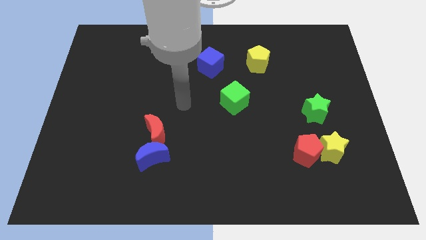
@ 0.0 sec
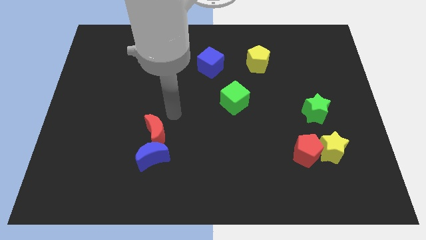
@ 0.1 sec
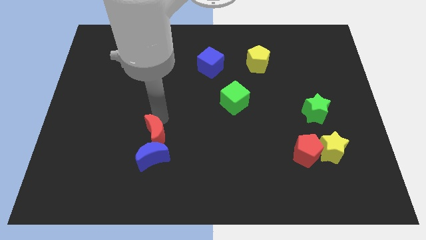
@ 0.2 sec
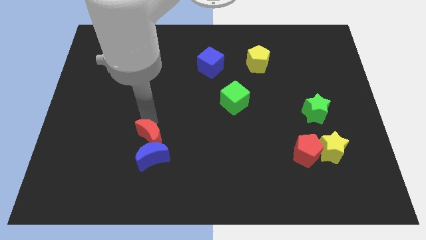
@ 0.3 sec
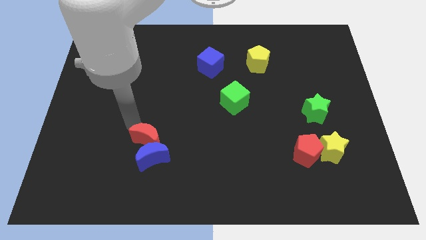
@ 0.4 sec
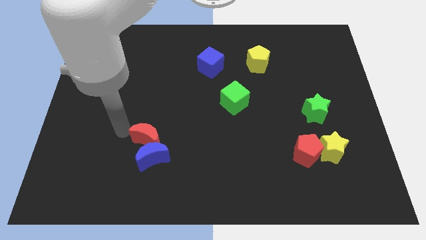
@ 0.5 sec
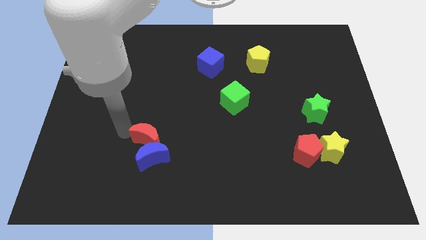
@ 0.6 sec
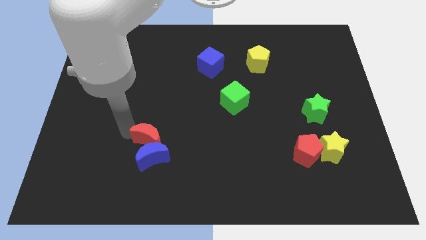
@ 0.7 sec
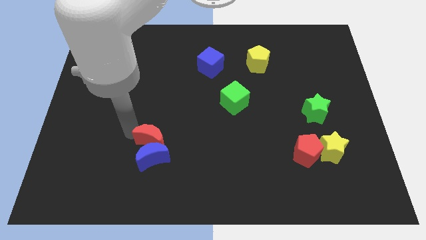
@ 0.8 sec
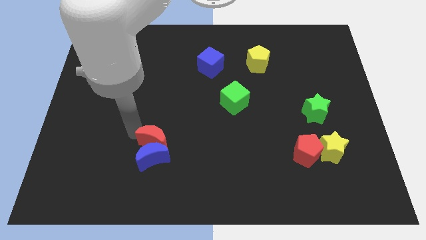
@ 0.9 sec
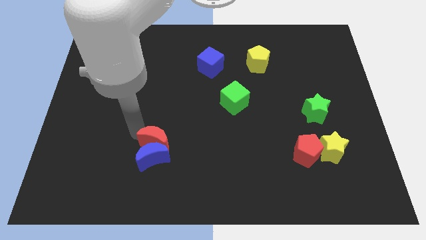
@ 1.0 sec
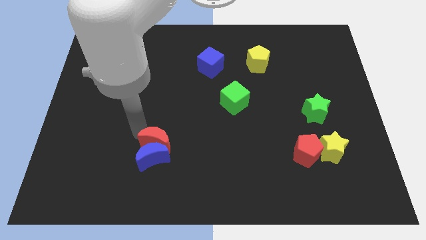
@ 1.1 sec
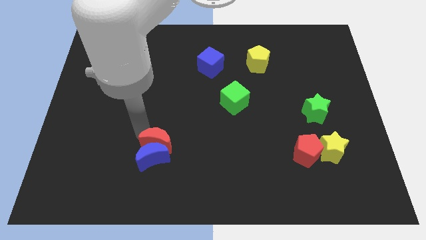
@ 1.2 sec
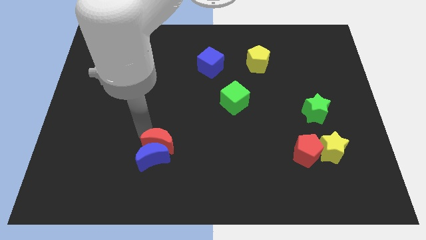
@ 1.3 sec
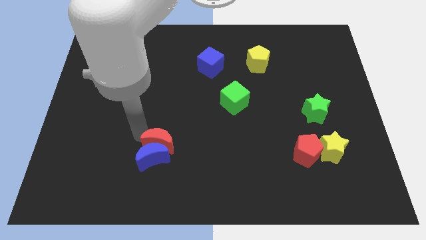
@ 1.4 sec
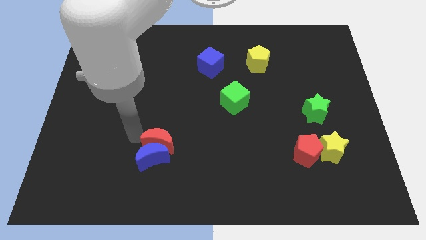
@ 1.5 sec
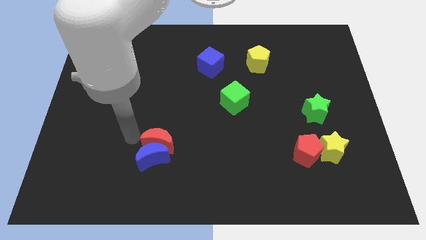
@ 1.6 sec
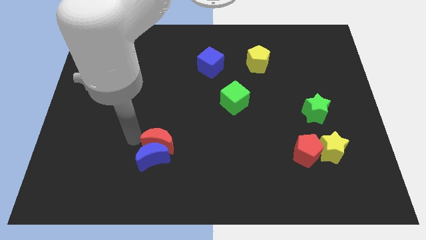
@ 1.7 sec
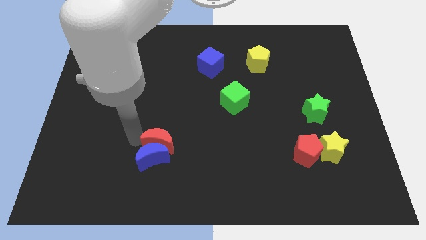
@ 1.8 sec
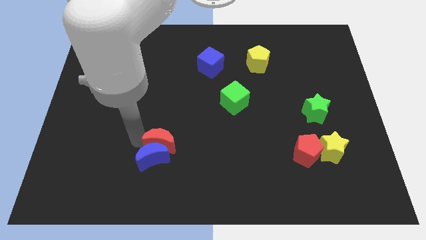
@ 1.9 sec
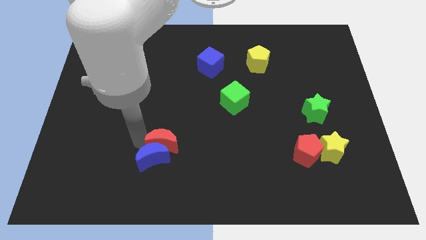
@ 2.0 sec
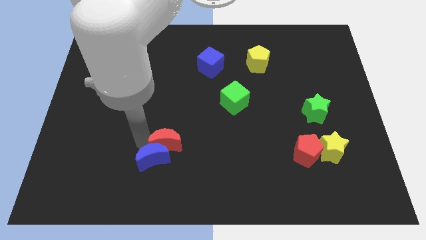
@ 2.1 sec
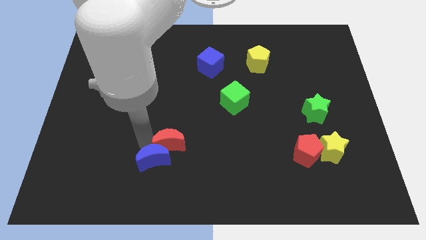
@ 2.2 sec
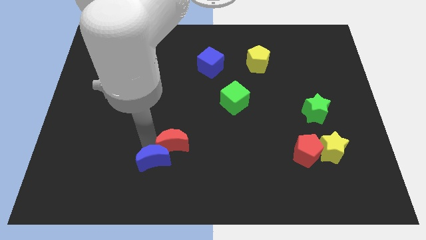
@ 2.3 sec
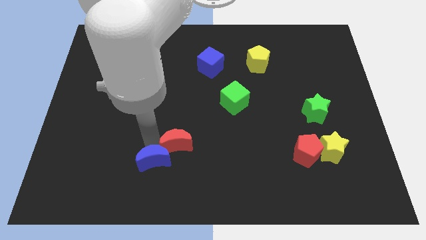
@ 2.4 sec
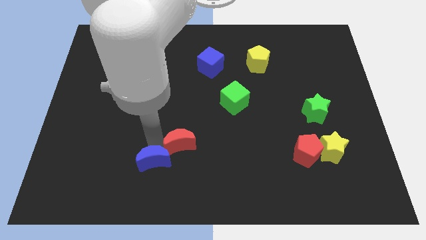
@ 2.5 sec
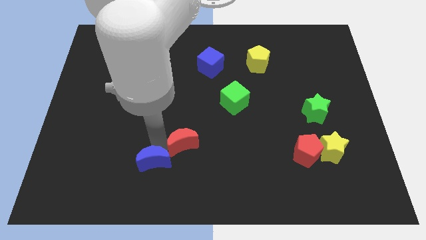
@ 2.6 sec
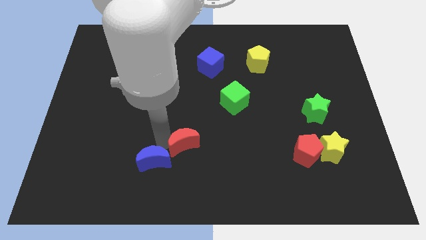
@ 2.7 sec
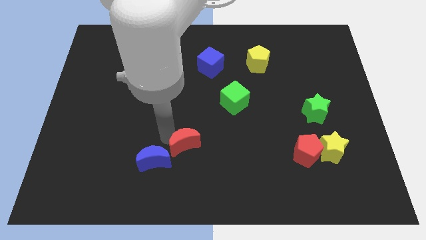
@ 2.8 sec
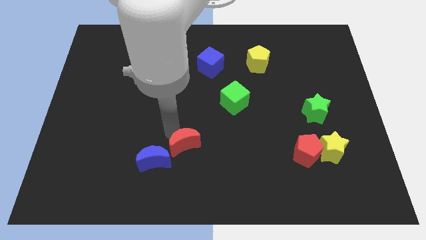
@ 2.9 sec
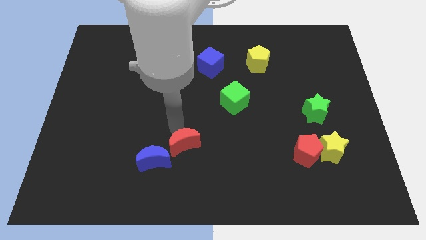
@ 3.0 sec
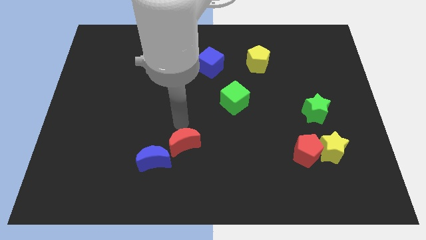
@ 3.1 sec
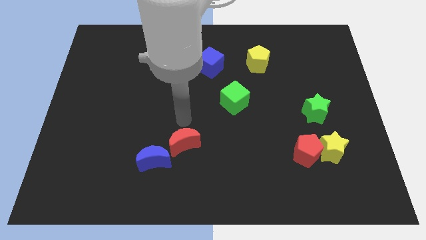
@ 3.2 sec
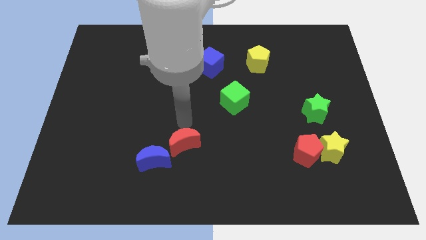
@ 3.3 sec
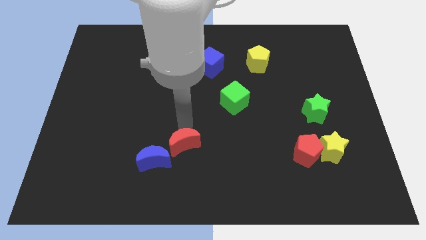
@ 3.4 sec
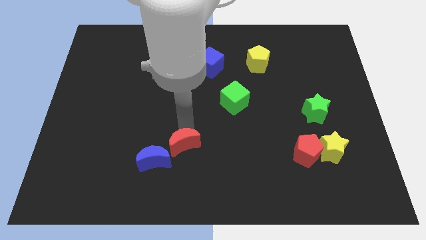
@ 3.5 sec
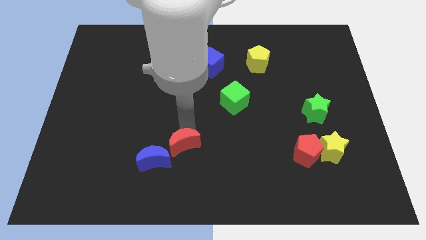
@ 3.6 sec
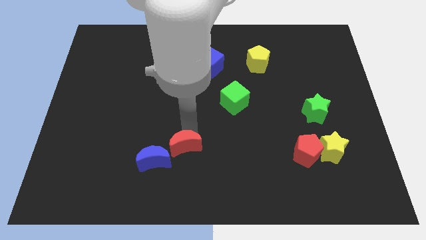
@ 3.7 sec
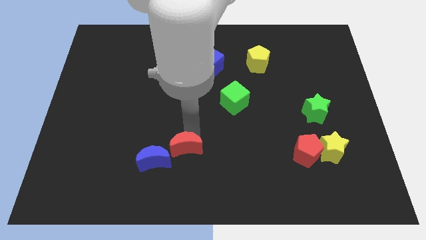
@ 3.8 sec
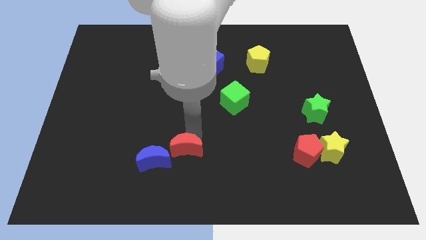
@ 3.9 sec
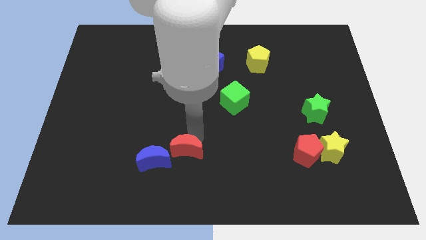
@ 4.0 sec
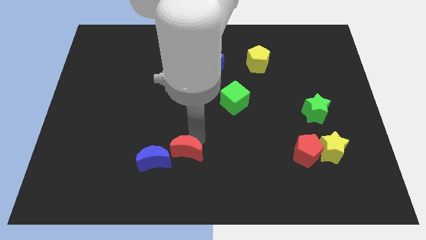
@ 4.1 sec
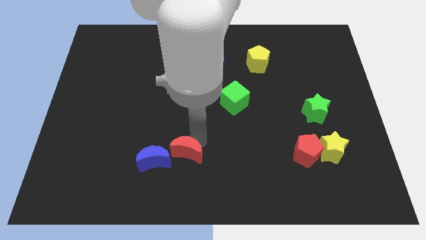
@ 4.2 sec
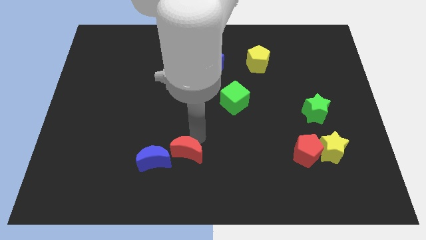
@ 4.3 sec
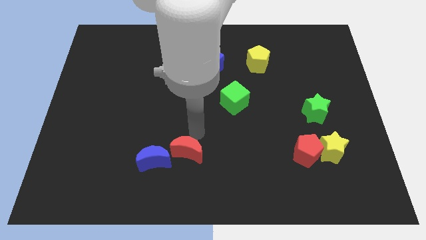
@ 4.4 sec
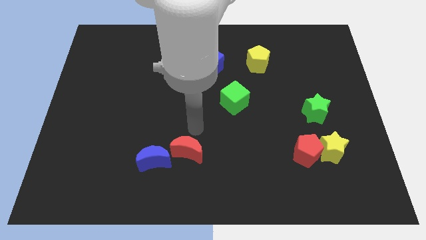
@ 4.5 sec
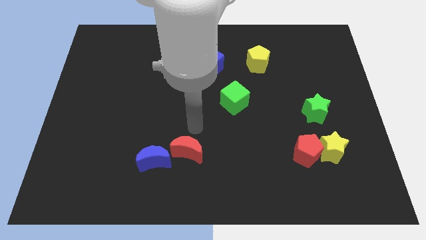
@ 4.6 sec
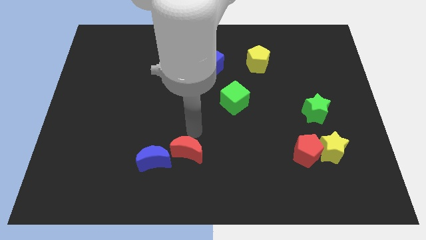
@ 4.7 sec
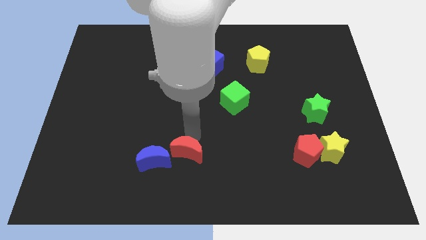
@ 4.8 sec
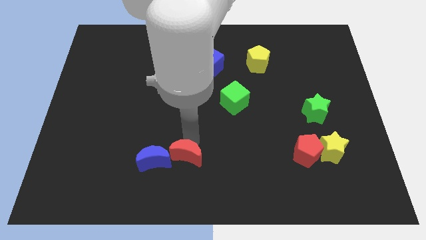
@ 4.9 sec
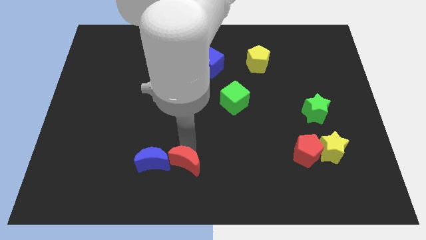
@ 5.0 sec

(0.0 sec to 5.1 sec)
slide the red moon to the bottom
